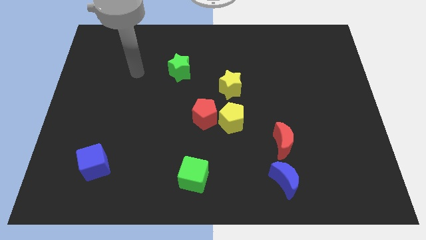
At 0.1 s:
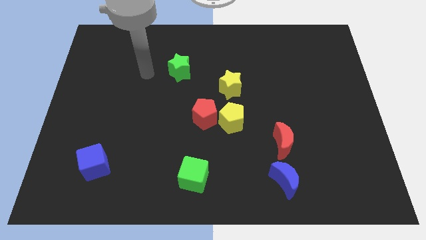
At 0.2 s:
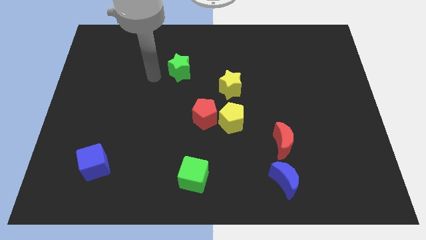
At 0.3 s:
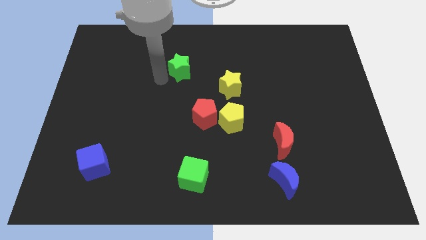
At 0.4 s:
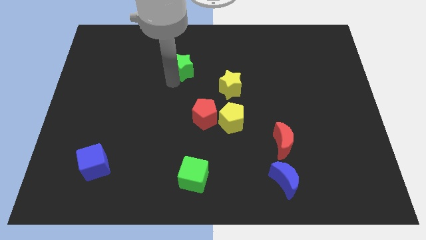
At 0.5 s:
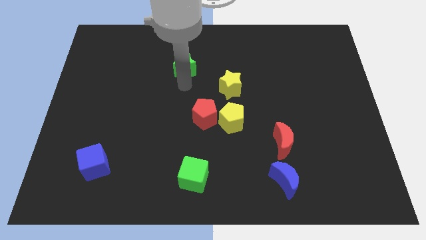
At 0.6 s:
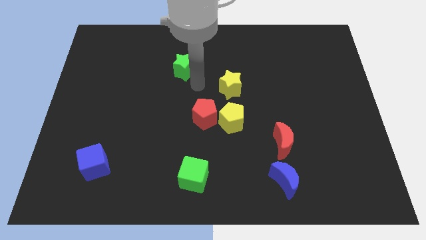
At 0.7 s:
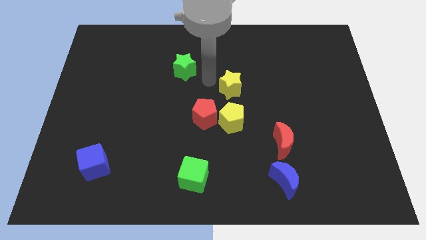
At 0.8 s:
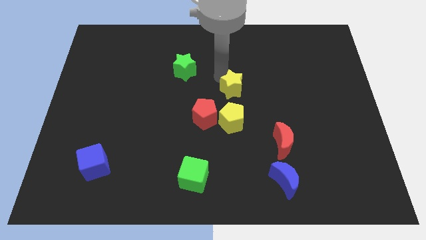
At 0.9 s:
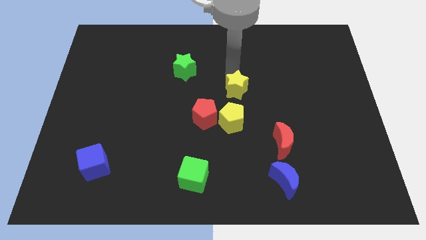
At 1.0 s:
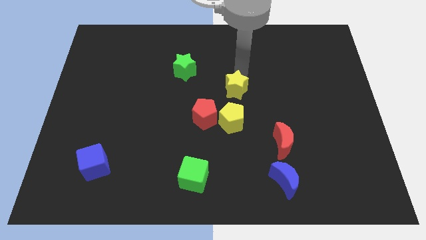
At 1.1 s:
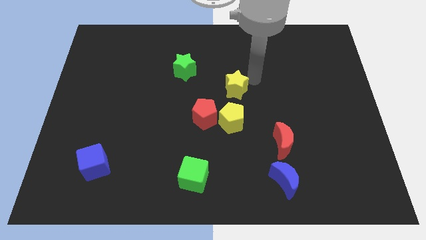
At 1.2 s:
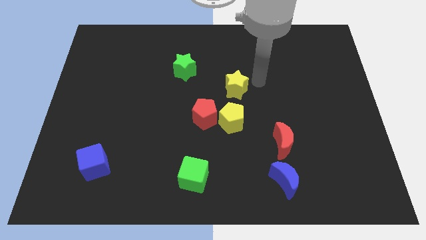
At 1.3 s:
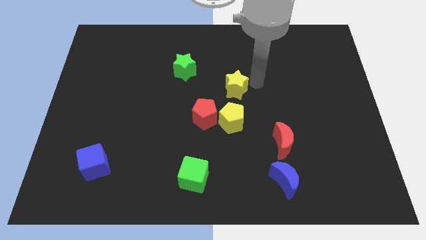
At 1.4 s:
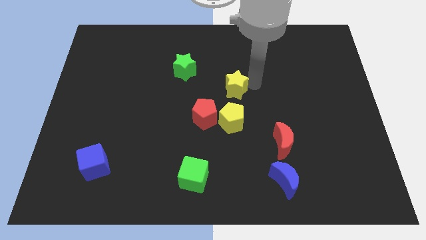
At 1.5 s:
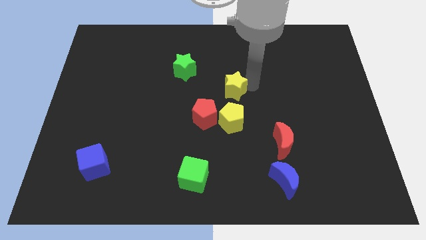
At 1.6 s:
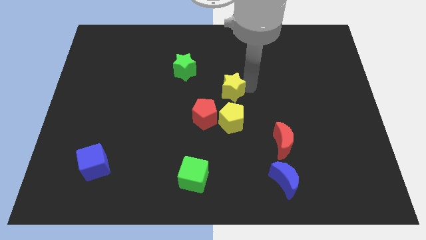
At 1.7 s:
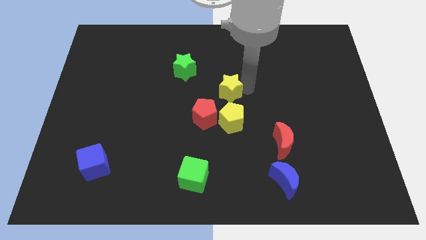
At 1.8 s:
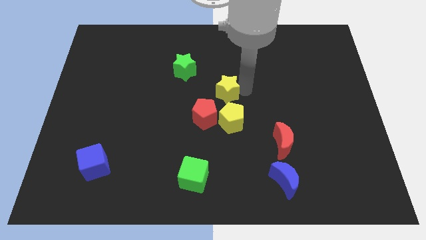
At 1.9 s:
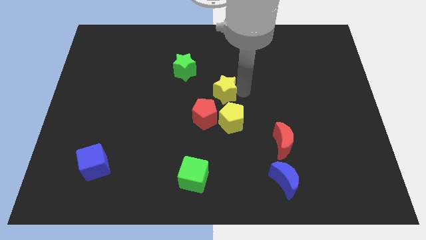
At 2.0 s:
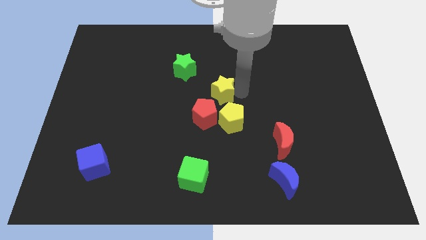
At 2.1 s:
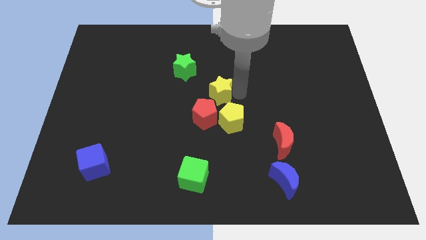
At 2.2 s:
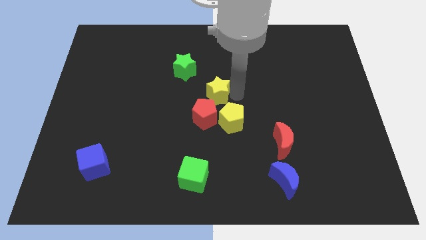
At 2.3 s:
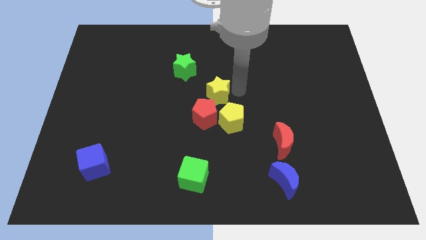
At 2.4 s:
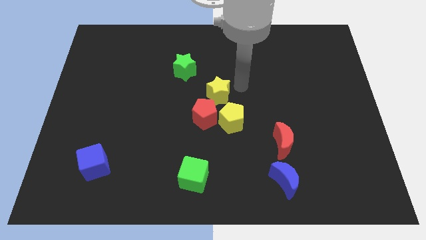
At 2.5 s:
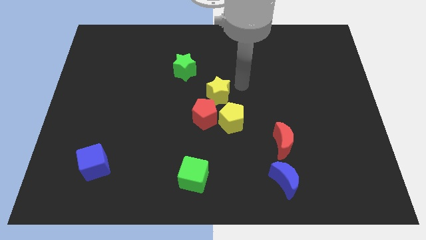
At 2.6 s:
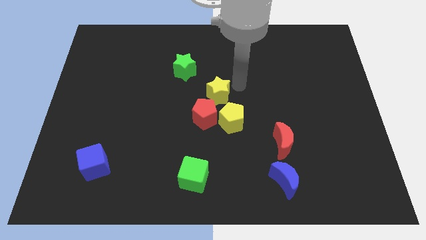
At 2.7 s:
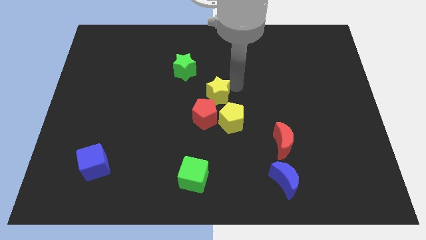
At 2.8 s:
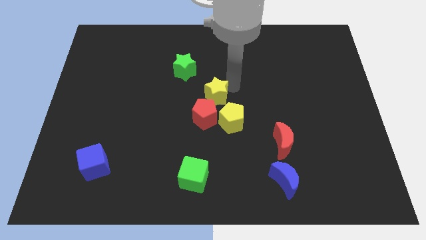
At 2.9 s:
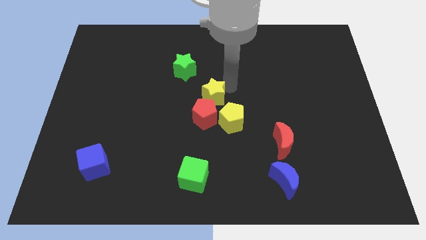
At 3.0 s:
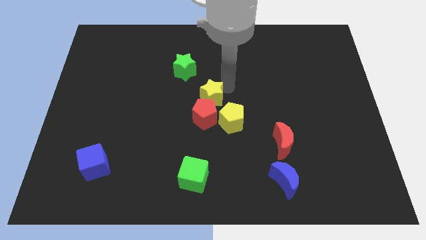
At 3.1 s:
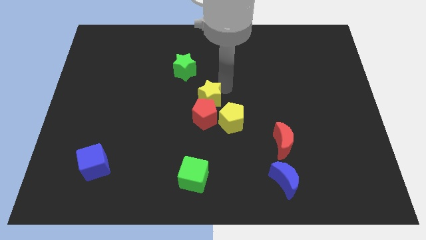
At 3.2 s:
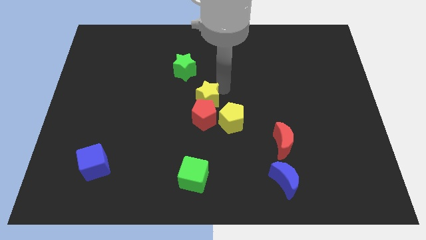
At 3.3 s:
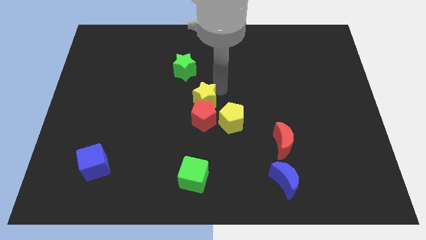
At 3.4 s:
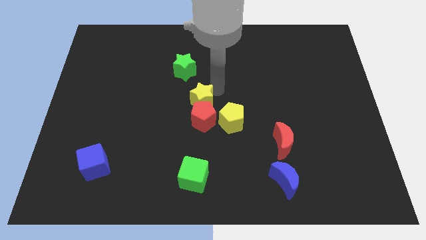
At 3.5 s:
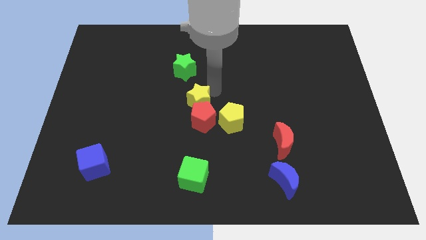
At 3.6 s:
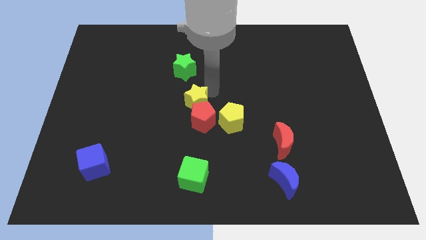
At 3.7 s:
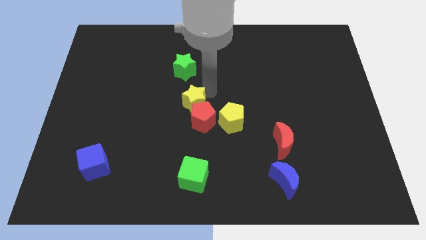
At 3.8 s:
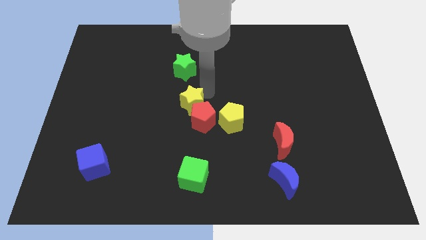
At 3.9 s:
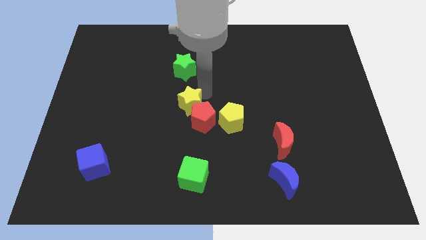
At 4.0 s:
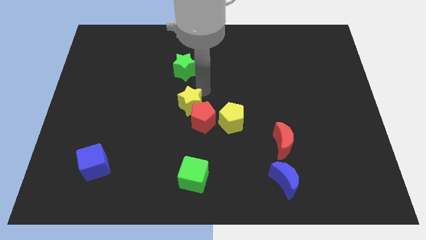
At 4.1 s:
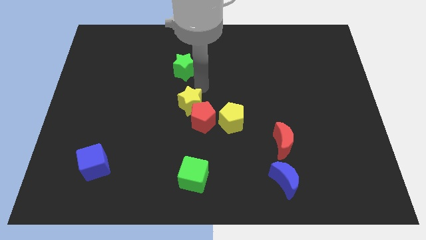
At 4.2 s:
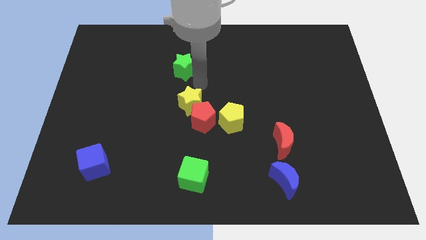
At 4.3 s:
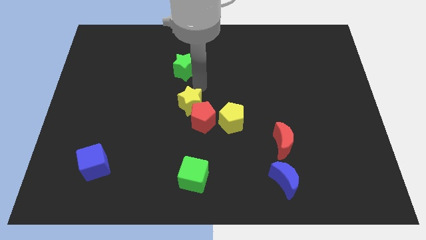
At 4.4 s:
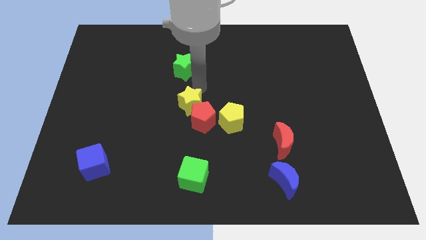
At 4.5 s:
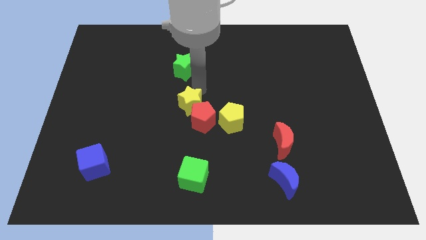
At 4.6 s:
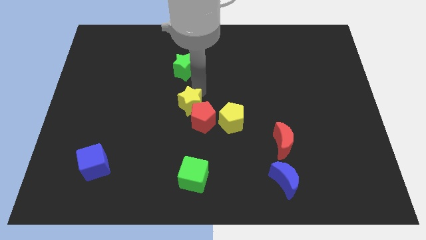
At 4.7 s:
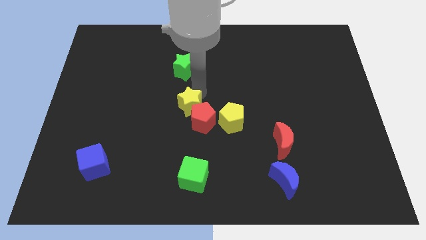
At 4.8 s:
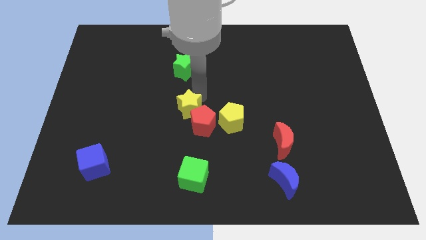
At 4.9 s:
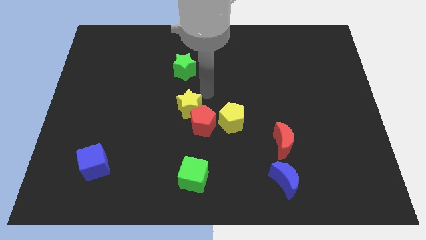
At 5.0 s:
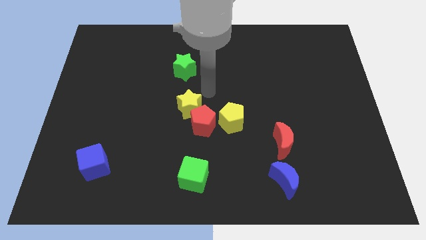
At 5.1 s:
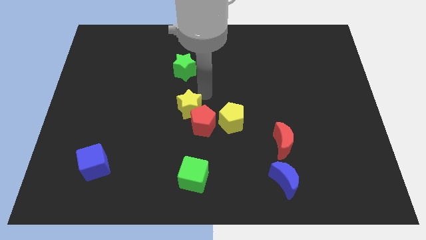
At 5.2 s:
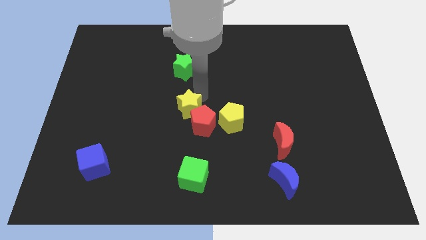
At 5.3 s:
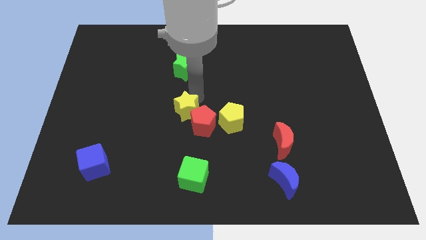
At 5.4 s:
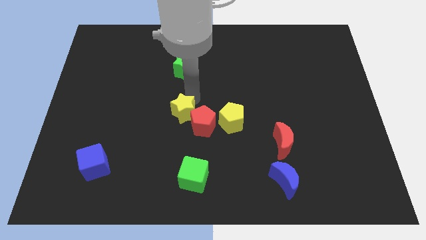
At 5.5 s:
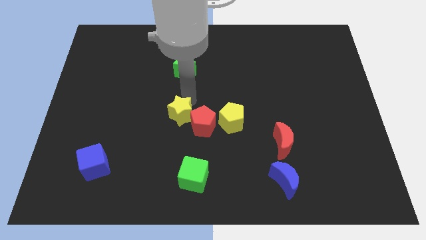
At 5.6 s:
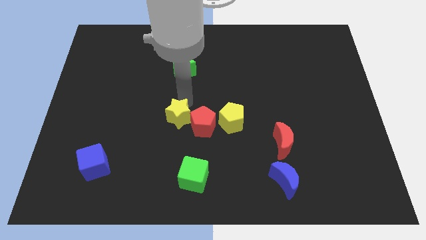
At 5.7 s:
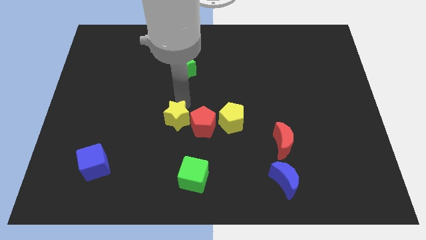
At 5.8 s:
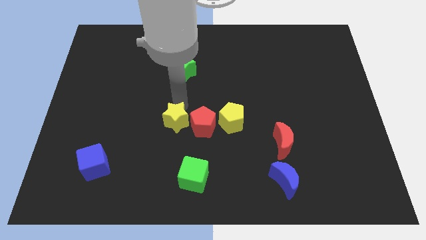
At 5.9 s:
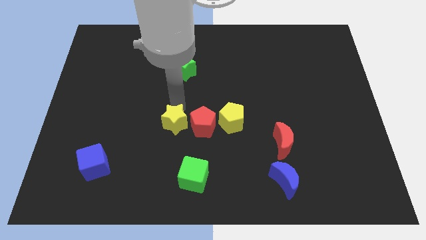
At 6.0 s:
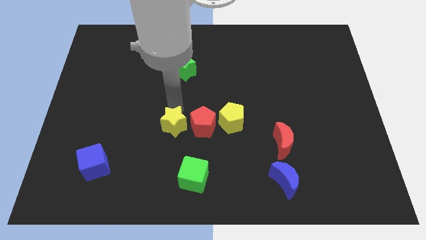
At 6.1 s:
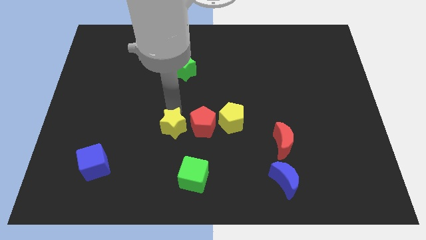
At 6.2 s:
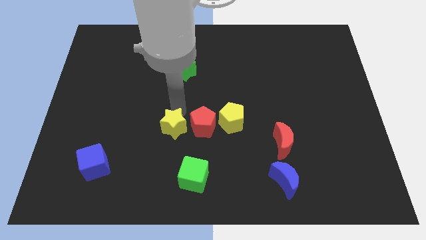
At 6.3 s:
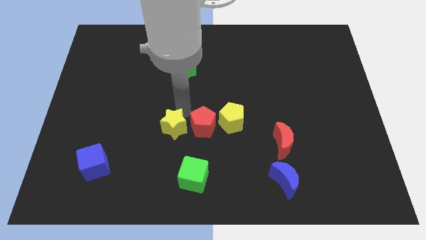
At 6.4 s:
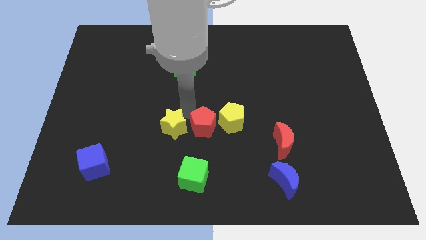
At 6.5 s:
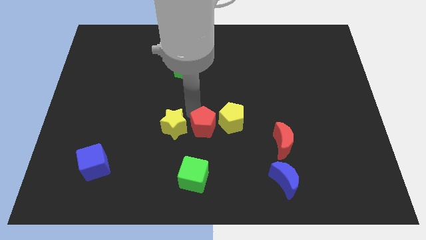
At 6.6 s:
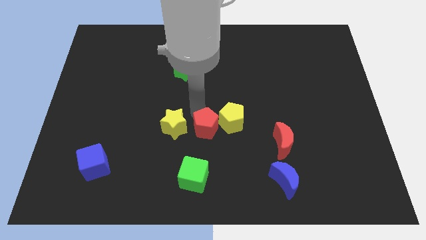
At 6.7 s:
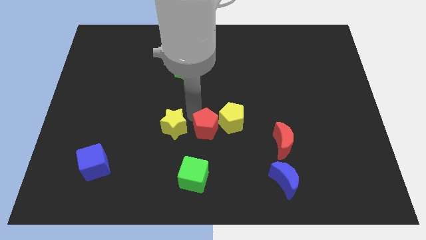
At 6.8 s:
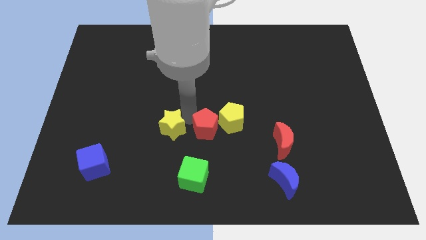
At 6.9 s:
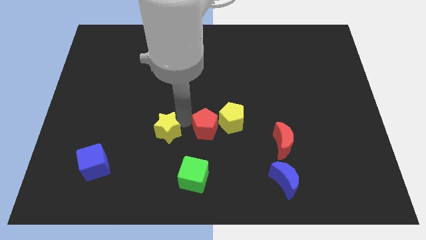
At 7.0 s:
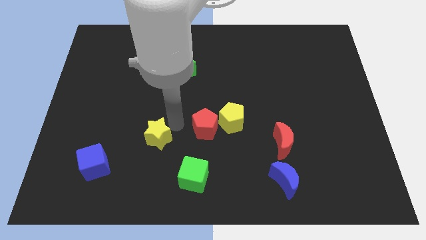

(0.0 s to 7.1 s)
push the yellow star downwards and then left

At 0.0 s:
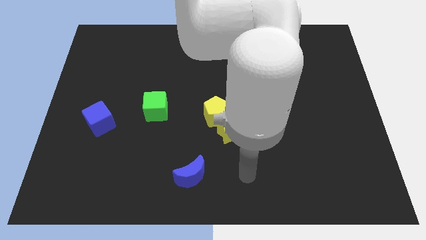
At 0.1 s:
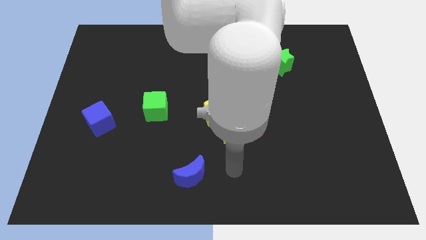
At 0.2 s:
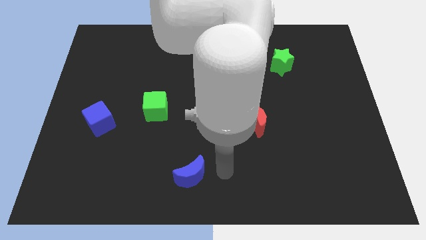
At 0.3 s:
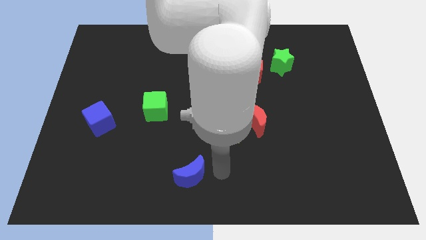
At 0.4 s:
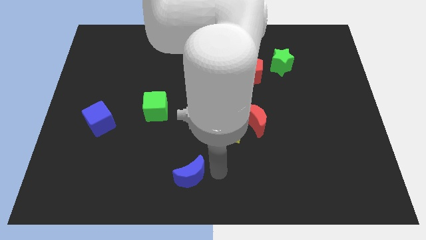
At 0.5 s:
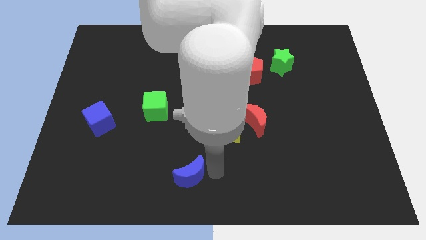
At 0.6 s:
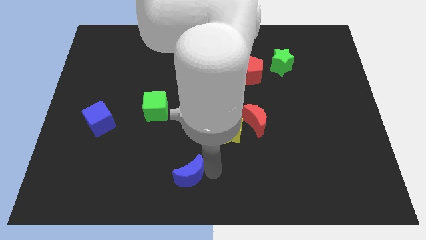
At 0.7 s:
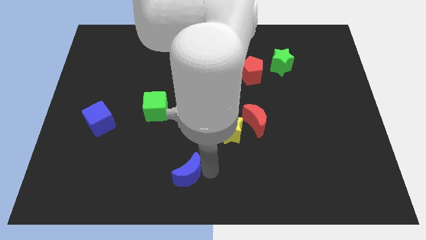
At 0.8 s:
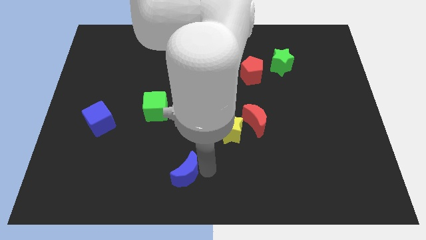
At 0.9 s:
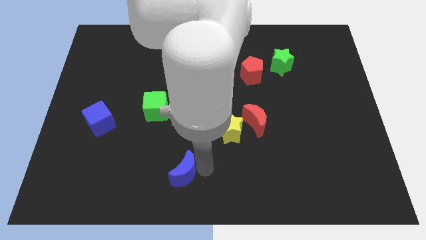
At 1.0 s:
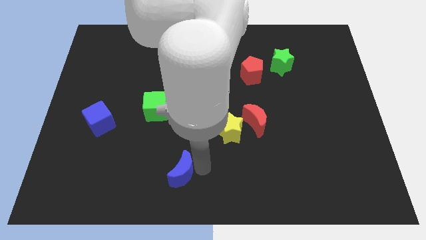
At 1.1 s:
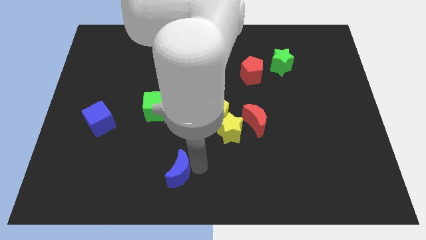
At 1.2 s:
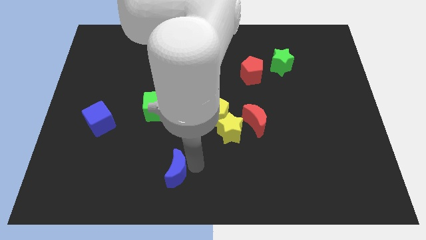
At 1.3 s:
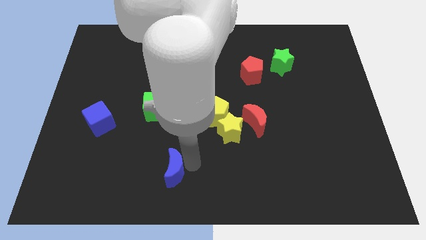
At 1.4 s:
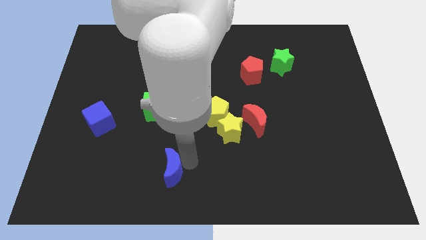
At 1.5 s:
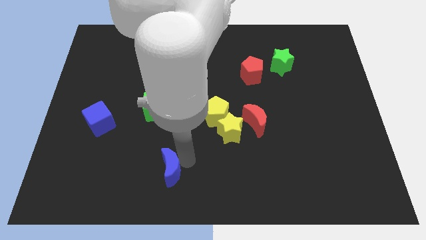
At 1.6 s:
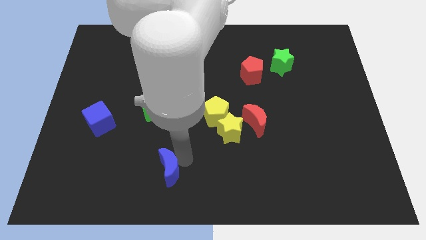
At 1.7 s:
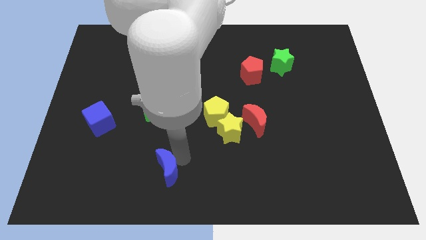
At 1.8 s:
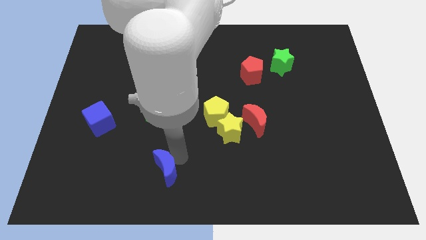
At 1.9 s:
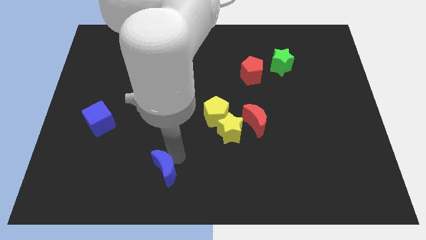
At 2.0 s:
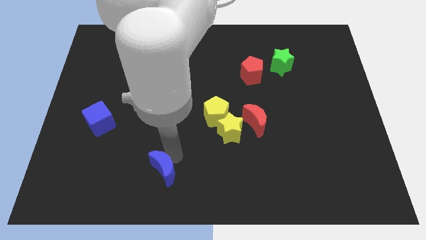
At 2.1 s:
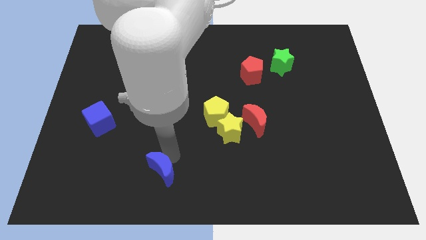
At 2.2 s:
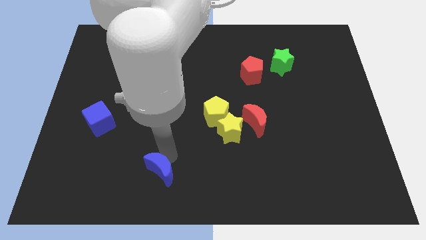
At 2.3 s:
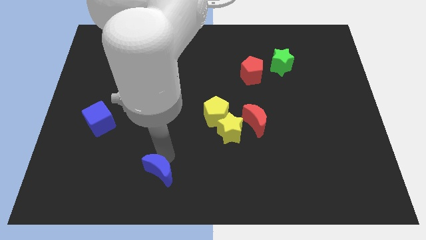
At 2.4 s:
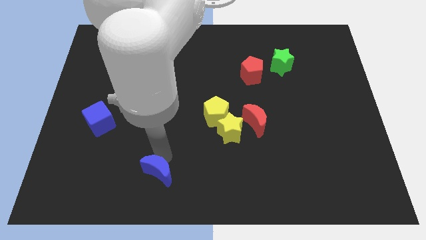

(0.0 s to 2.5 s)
push the blue moon a little bit to the left
